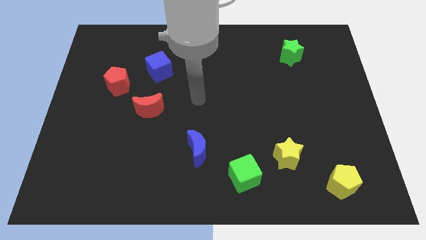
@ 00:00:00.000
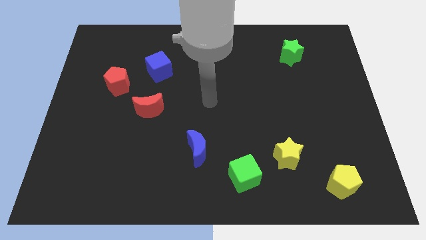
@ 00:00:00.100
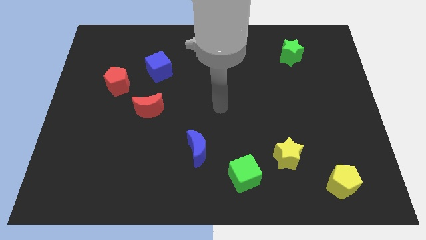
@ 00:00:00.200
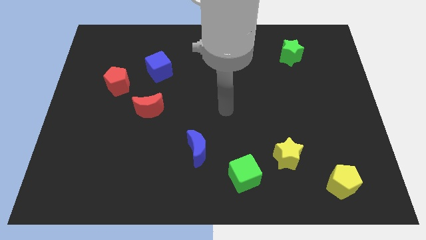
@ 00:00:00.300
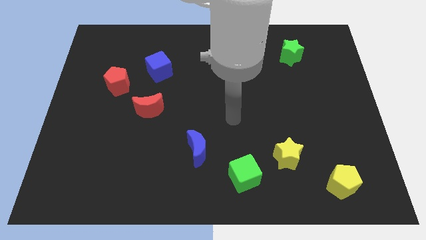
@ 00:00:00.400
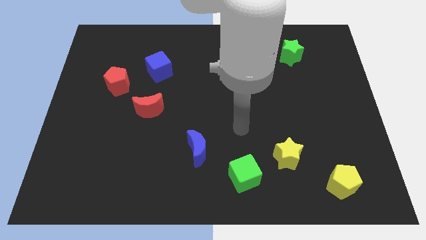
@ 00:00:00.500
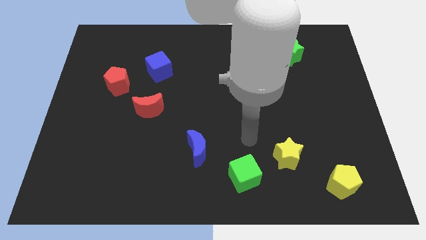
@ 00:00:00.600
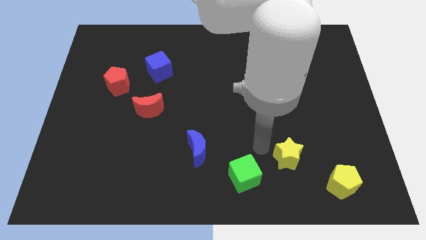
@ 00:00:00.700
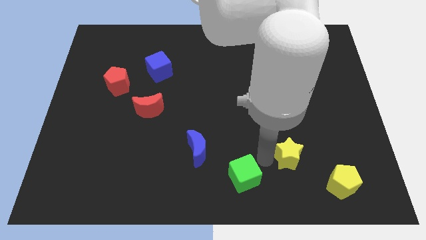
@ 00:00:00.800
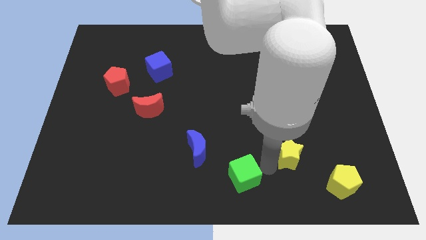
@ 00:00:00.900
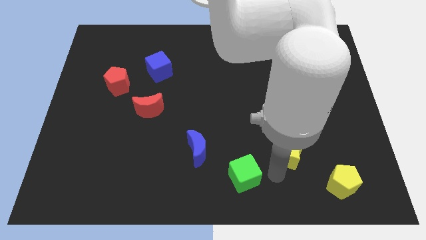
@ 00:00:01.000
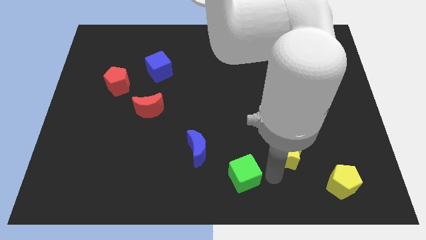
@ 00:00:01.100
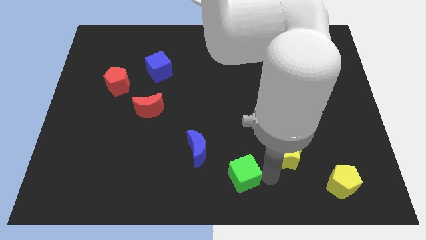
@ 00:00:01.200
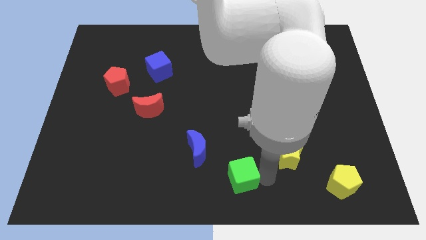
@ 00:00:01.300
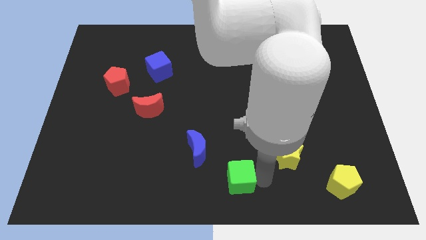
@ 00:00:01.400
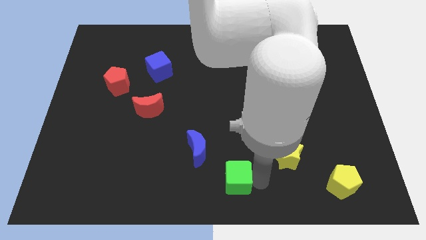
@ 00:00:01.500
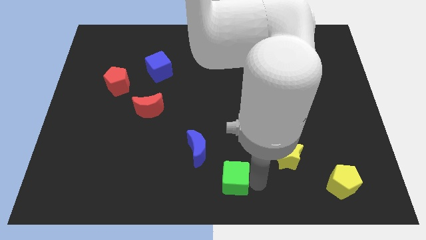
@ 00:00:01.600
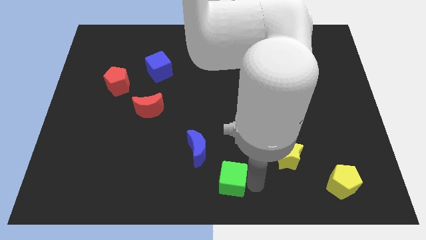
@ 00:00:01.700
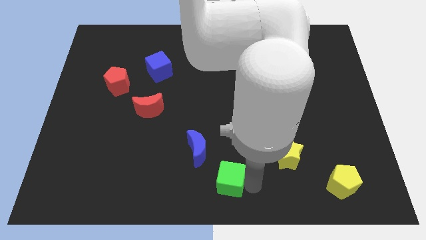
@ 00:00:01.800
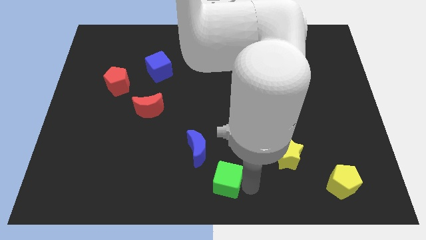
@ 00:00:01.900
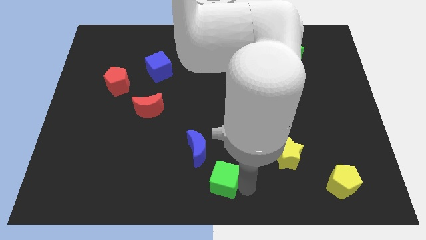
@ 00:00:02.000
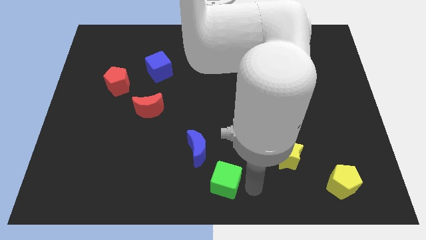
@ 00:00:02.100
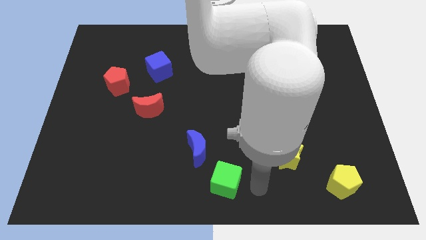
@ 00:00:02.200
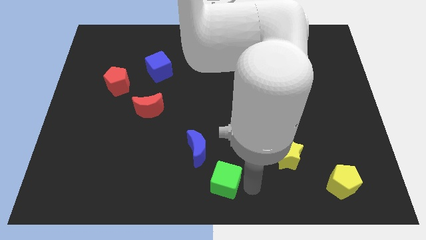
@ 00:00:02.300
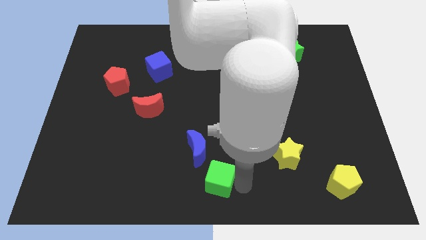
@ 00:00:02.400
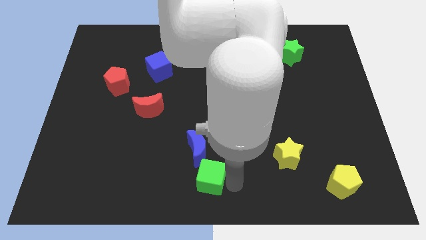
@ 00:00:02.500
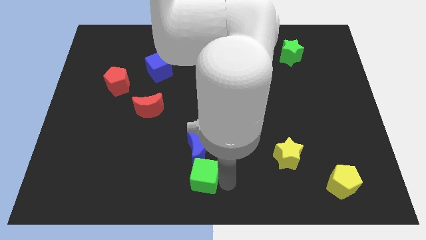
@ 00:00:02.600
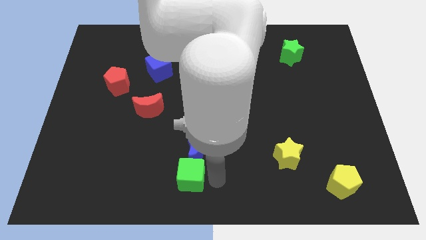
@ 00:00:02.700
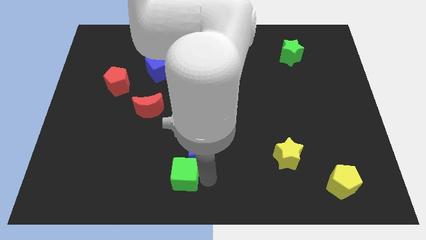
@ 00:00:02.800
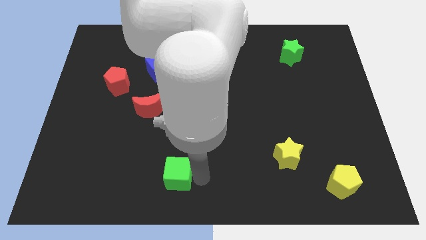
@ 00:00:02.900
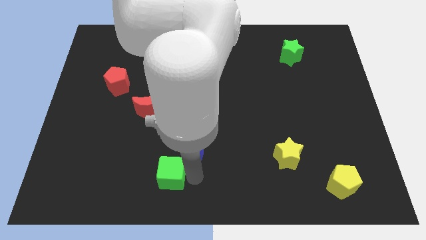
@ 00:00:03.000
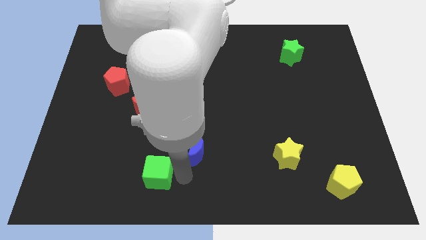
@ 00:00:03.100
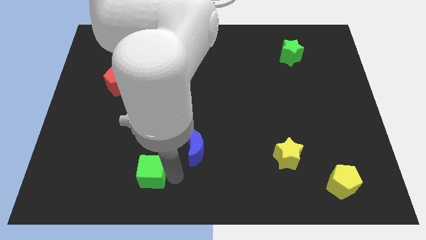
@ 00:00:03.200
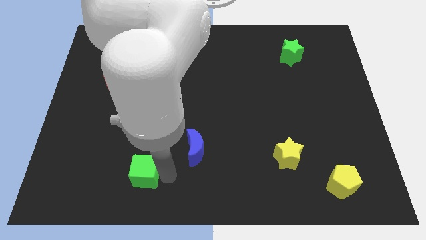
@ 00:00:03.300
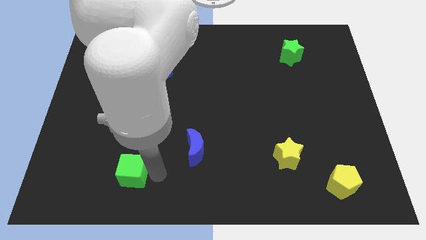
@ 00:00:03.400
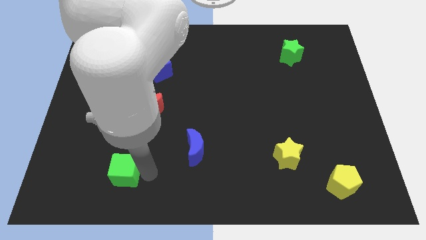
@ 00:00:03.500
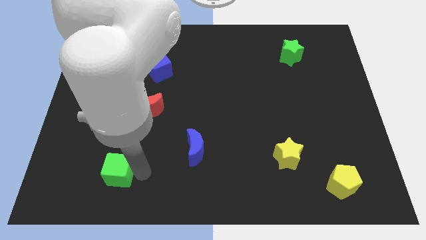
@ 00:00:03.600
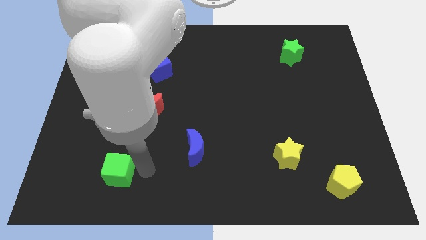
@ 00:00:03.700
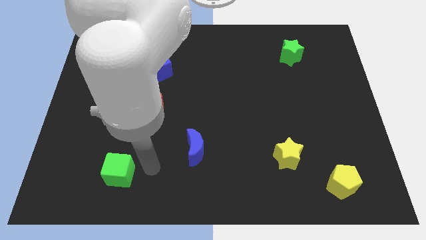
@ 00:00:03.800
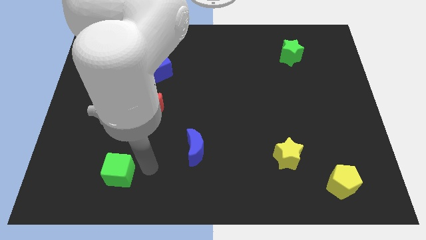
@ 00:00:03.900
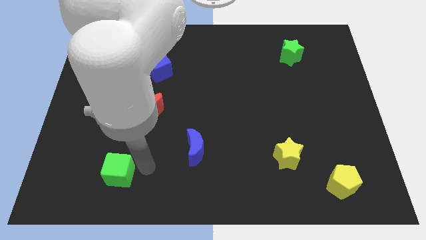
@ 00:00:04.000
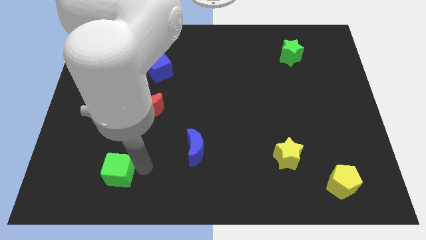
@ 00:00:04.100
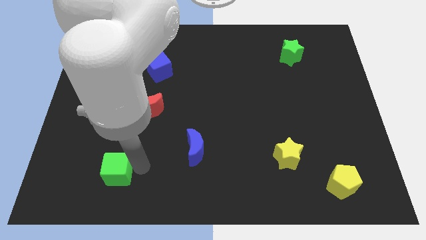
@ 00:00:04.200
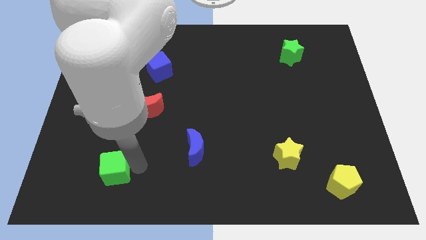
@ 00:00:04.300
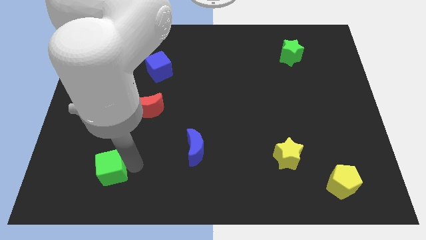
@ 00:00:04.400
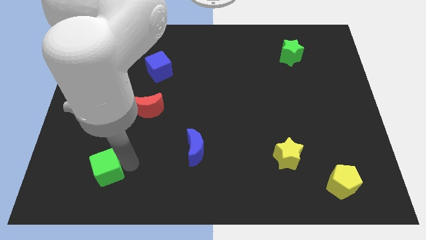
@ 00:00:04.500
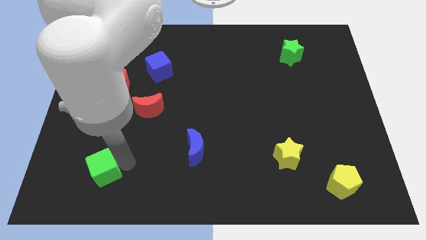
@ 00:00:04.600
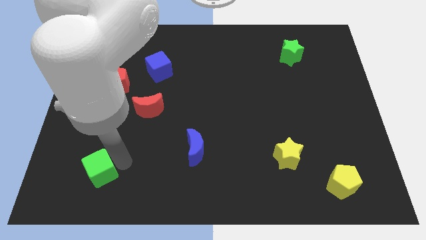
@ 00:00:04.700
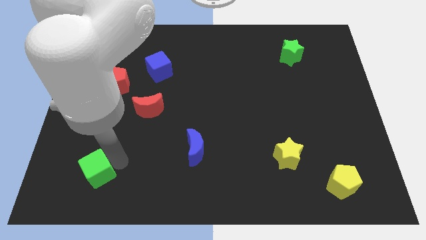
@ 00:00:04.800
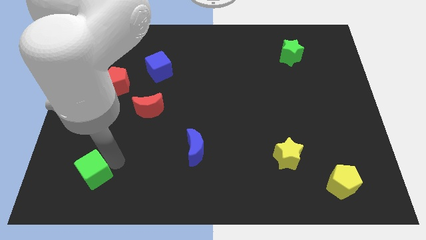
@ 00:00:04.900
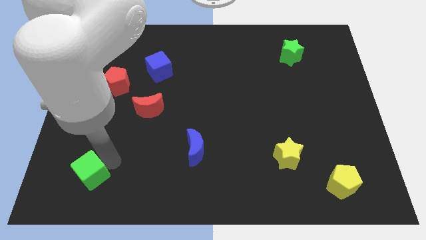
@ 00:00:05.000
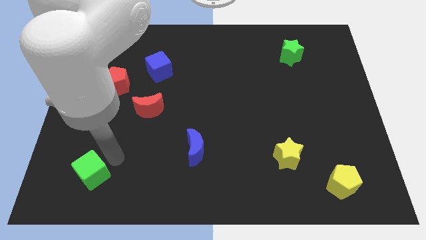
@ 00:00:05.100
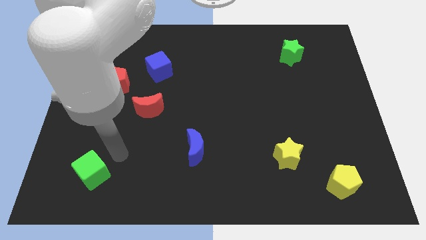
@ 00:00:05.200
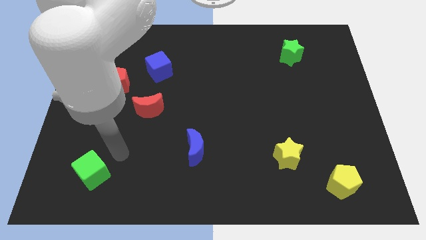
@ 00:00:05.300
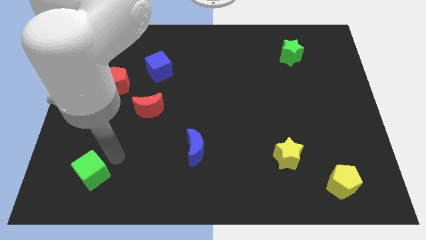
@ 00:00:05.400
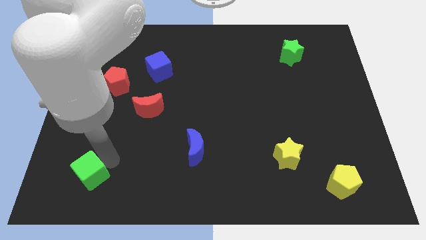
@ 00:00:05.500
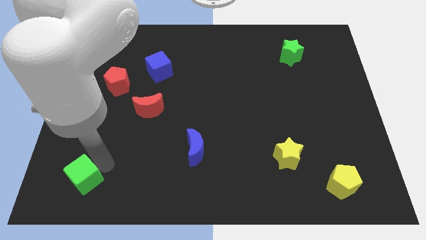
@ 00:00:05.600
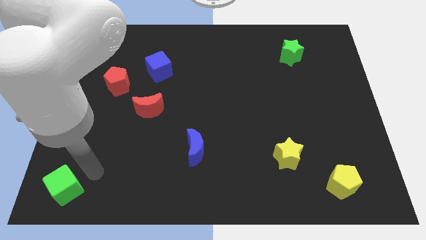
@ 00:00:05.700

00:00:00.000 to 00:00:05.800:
slide the green cube to the bottom left of the board
